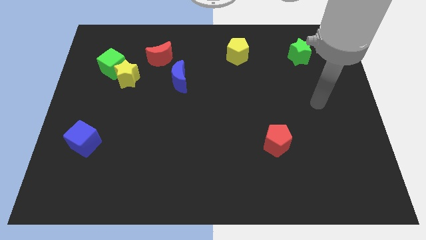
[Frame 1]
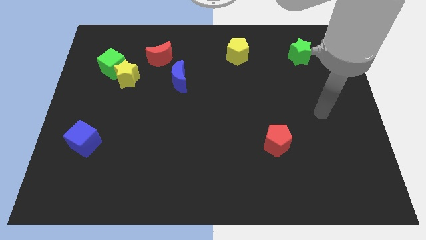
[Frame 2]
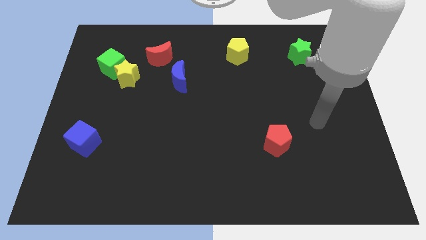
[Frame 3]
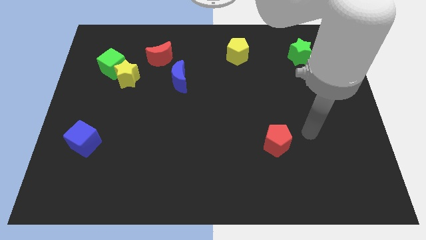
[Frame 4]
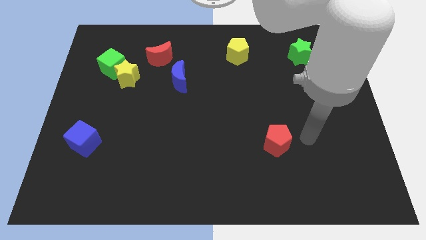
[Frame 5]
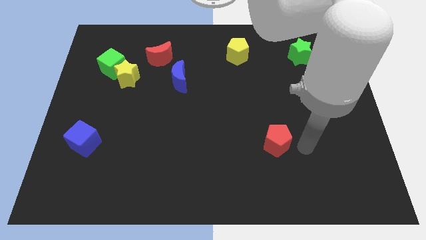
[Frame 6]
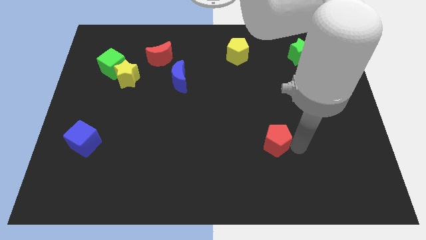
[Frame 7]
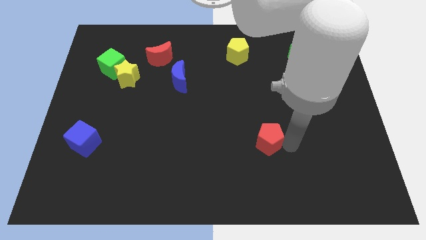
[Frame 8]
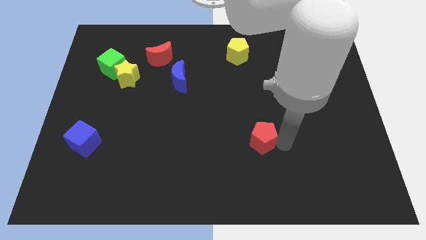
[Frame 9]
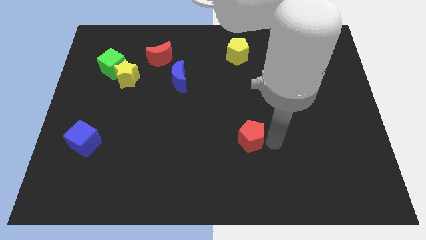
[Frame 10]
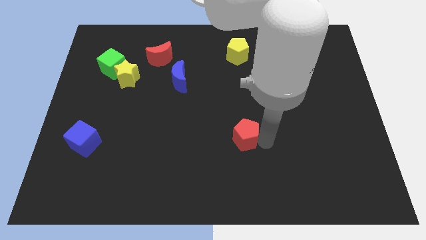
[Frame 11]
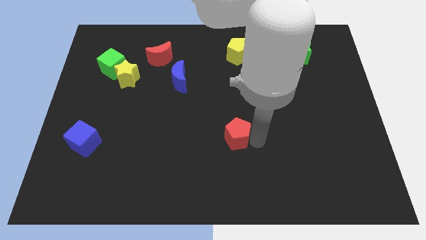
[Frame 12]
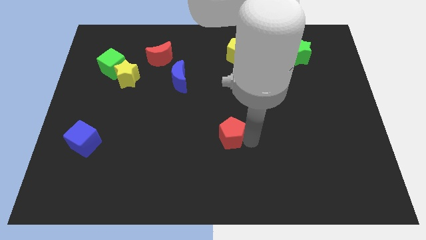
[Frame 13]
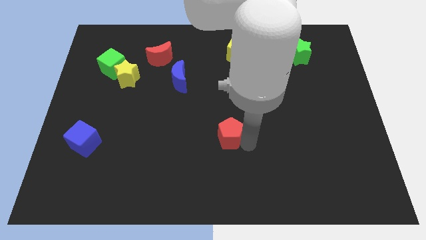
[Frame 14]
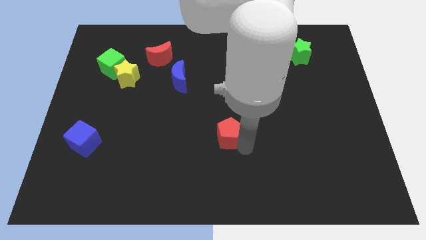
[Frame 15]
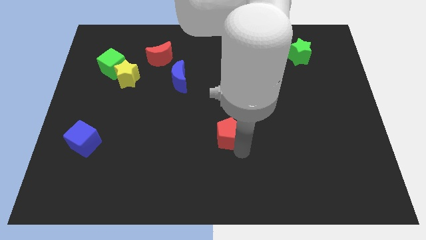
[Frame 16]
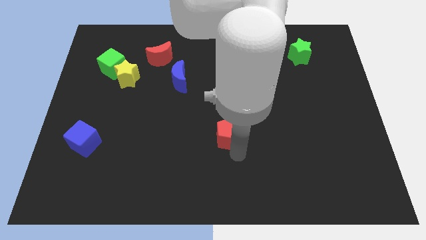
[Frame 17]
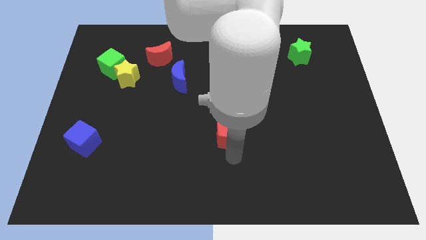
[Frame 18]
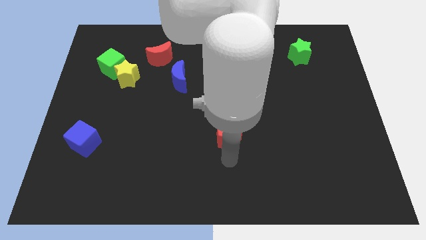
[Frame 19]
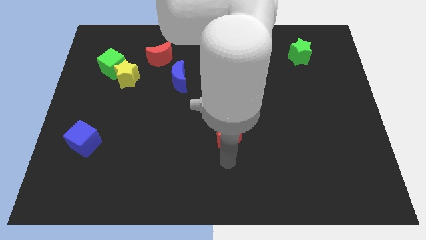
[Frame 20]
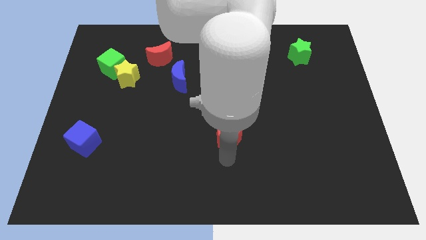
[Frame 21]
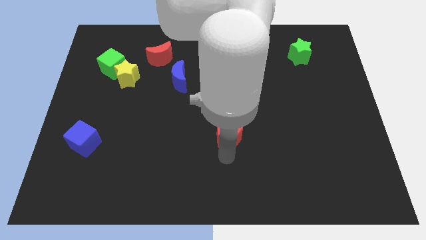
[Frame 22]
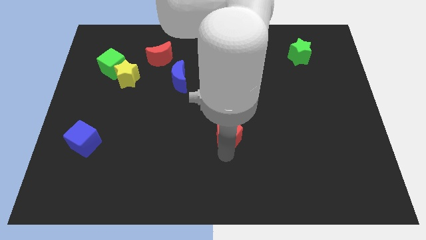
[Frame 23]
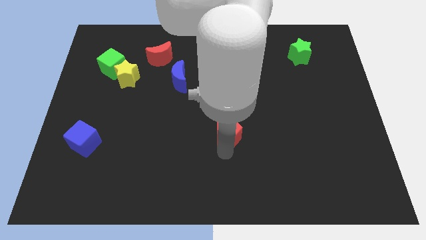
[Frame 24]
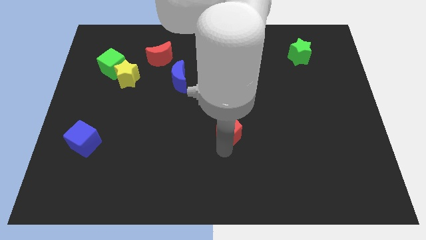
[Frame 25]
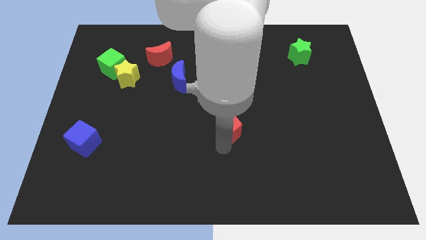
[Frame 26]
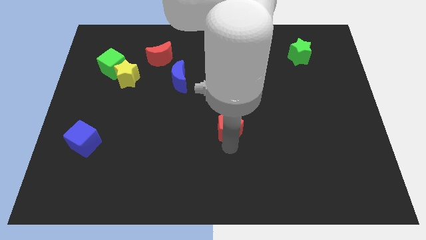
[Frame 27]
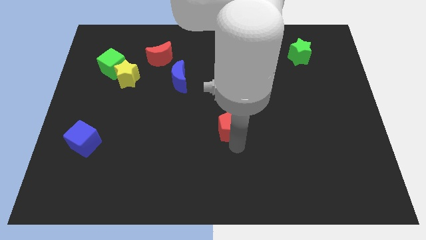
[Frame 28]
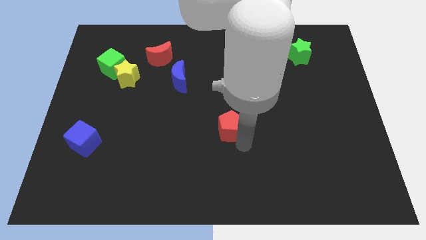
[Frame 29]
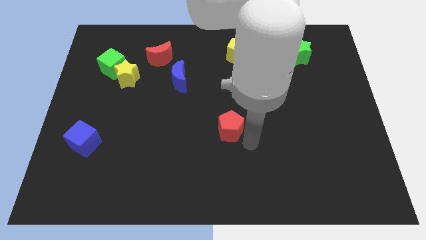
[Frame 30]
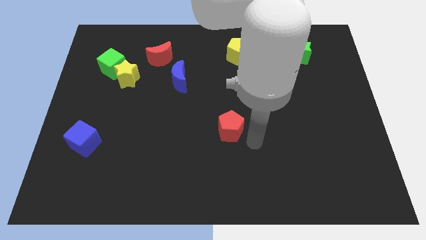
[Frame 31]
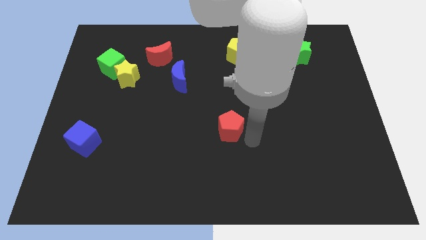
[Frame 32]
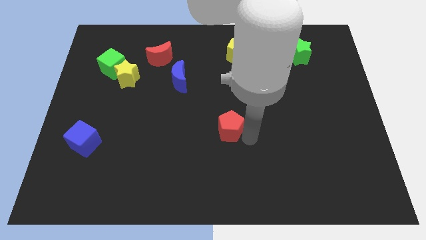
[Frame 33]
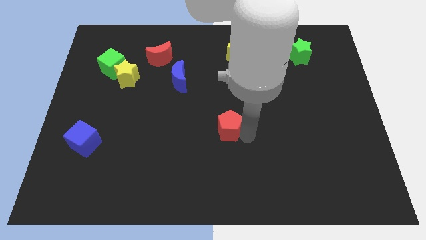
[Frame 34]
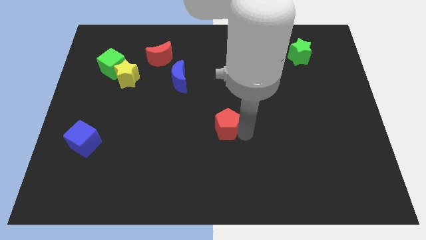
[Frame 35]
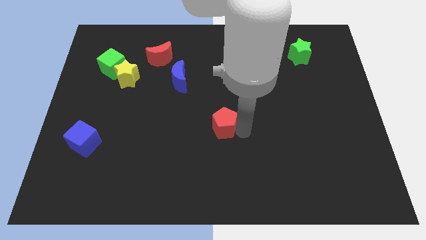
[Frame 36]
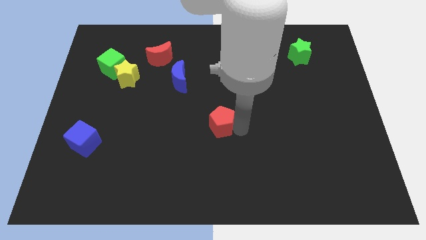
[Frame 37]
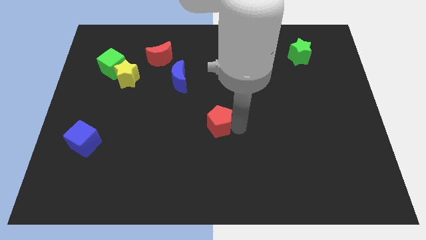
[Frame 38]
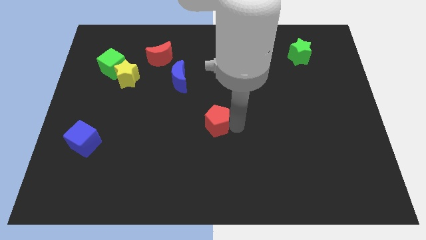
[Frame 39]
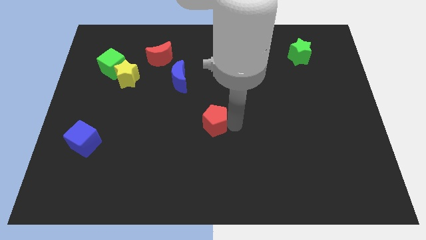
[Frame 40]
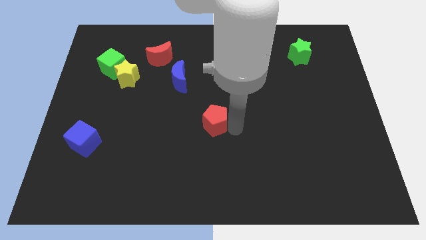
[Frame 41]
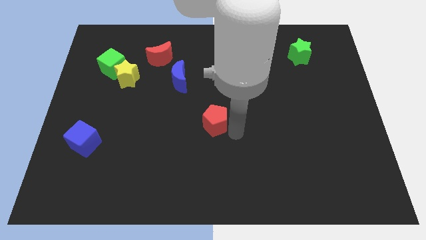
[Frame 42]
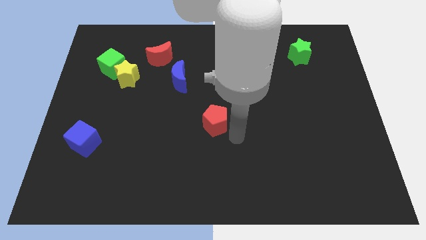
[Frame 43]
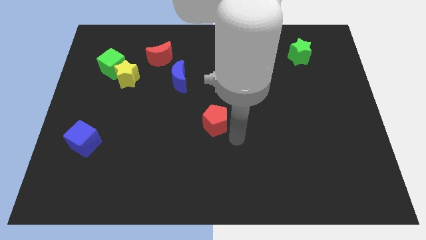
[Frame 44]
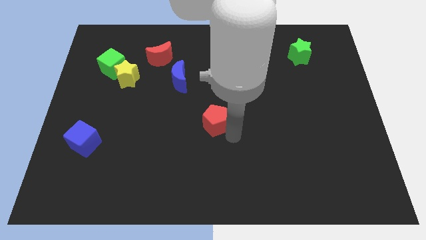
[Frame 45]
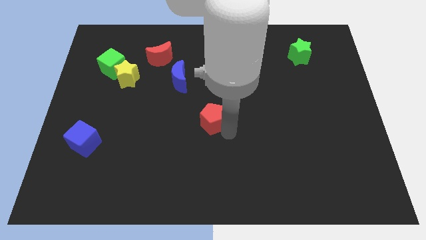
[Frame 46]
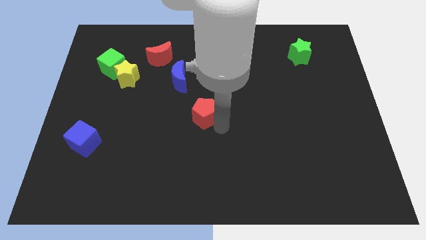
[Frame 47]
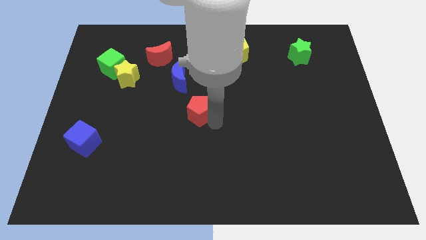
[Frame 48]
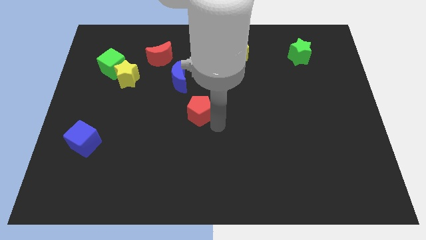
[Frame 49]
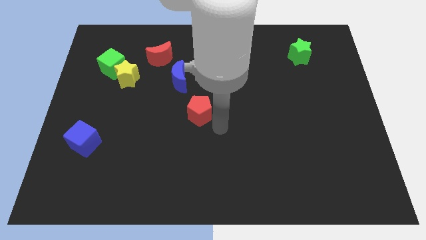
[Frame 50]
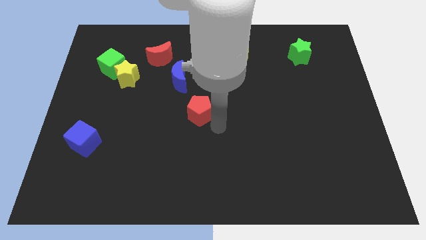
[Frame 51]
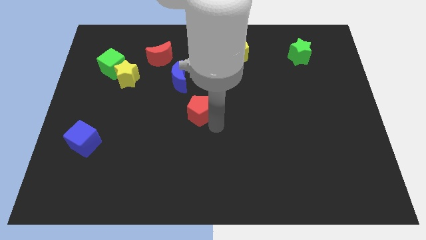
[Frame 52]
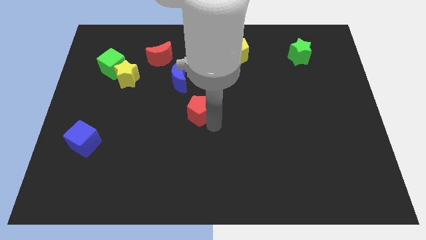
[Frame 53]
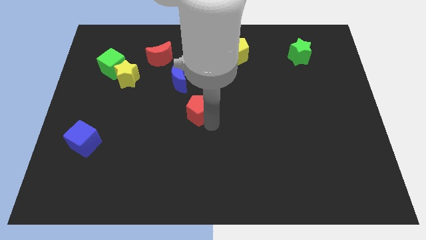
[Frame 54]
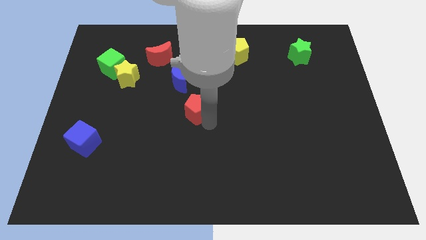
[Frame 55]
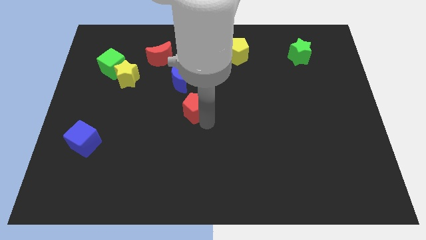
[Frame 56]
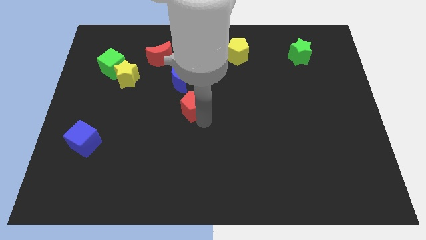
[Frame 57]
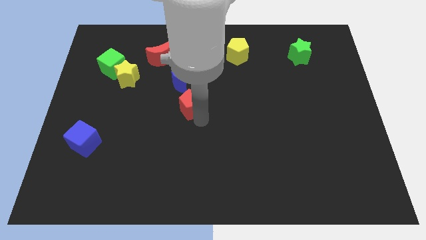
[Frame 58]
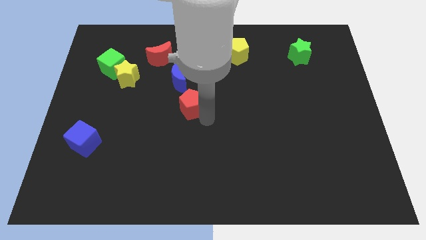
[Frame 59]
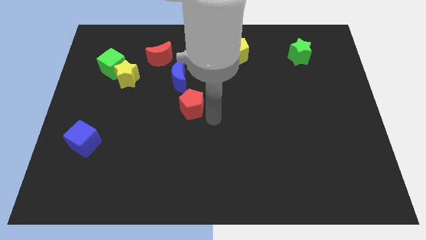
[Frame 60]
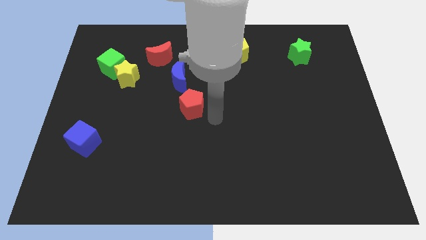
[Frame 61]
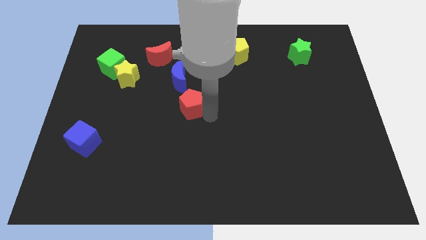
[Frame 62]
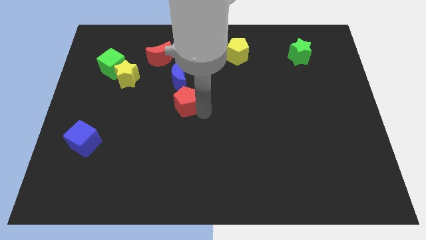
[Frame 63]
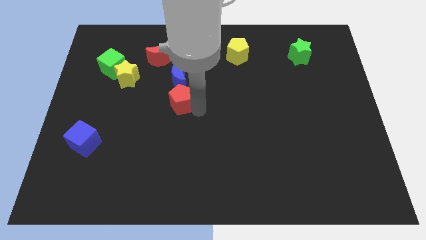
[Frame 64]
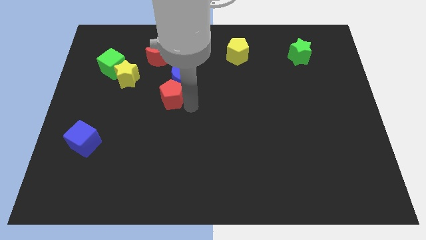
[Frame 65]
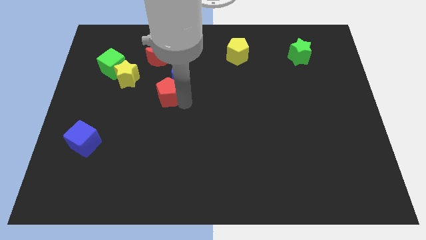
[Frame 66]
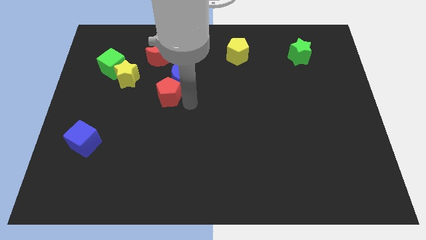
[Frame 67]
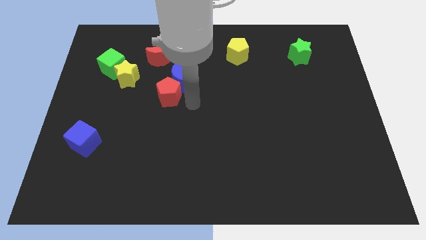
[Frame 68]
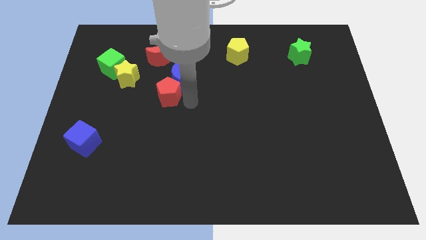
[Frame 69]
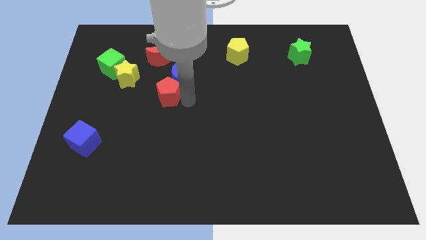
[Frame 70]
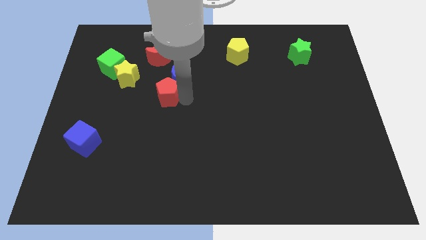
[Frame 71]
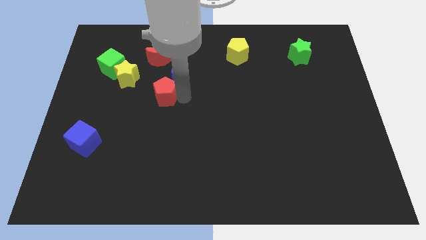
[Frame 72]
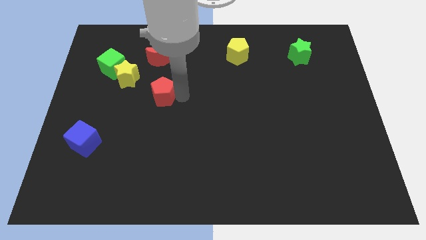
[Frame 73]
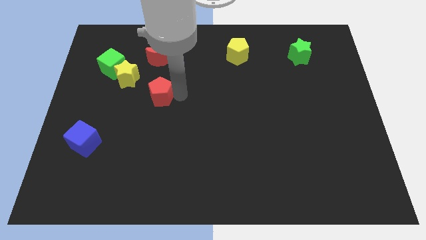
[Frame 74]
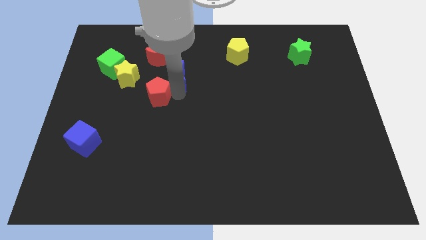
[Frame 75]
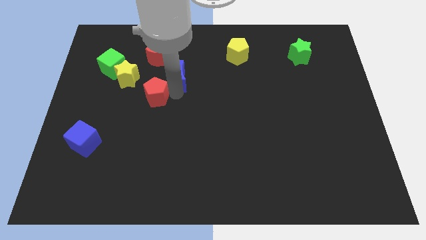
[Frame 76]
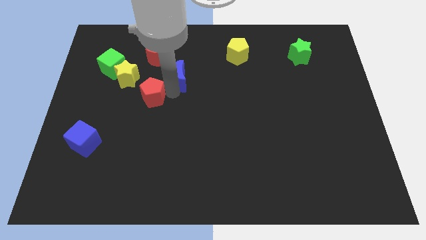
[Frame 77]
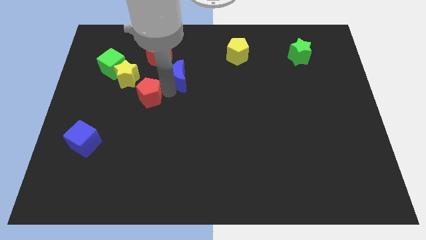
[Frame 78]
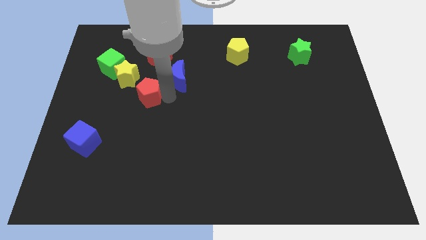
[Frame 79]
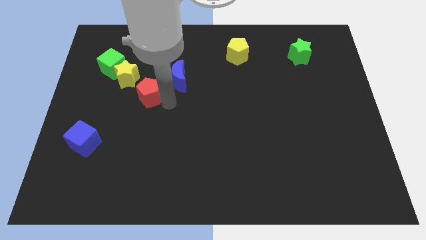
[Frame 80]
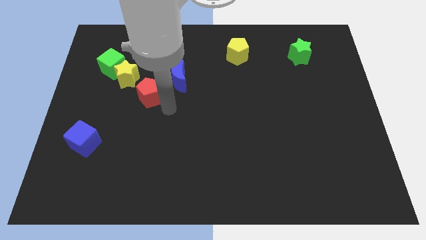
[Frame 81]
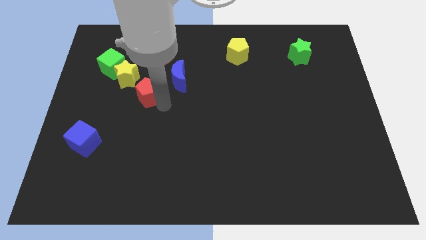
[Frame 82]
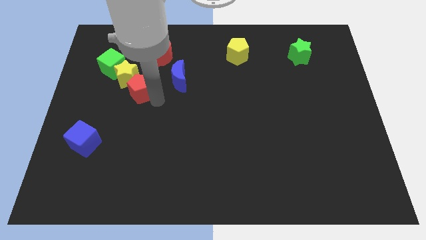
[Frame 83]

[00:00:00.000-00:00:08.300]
move the red pentagon towards the yellow star
